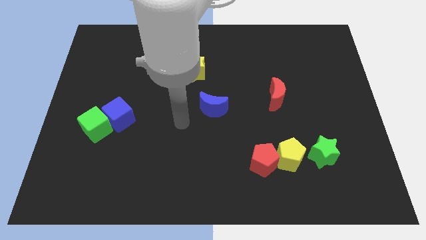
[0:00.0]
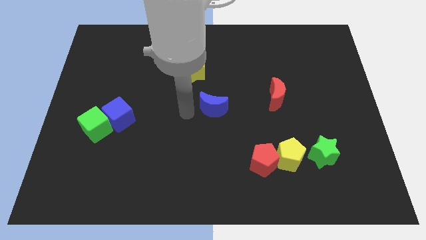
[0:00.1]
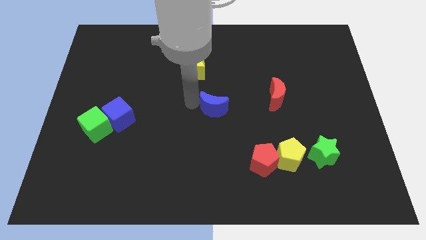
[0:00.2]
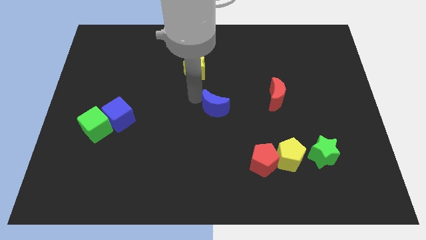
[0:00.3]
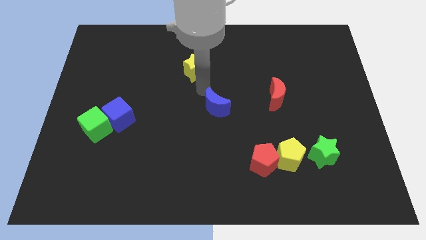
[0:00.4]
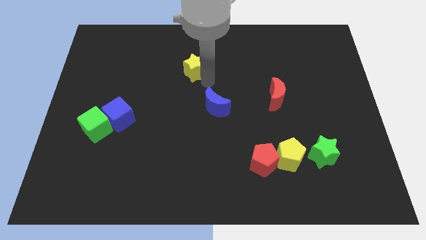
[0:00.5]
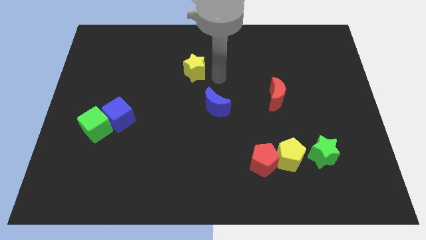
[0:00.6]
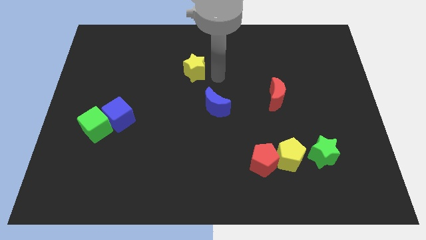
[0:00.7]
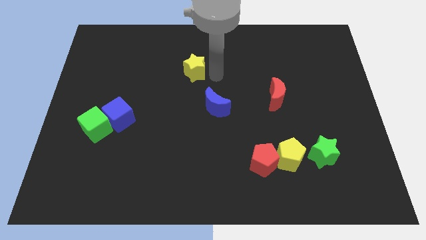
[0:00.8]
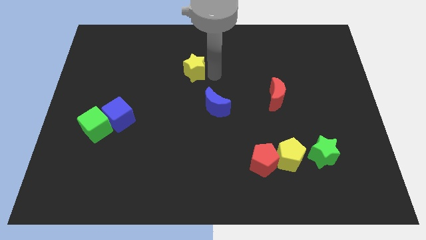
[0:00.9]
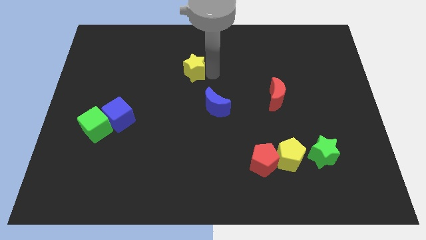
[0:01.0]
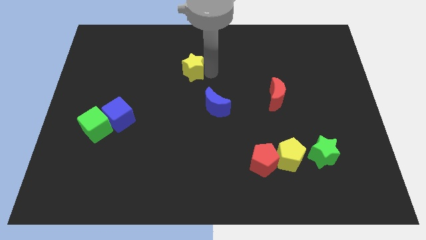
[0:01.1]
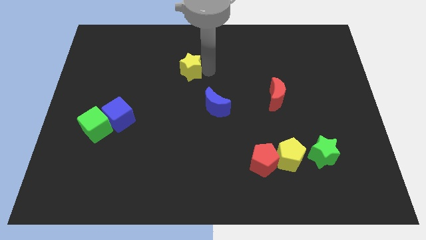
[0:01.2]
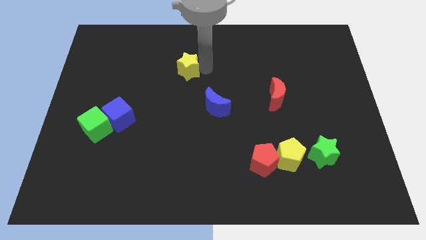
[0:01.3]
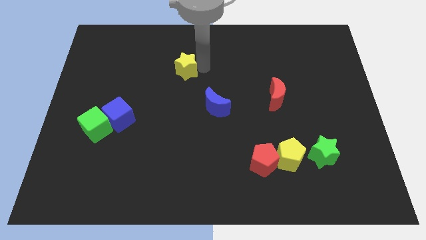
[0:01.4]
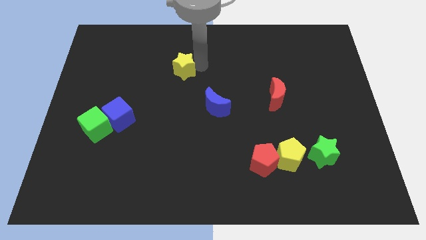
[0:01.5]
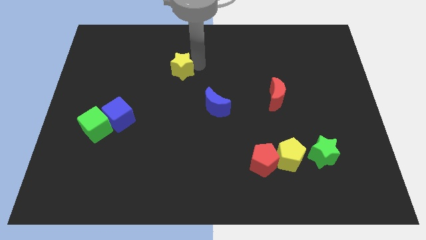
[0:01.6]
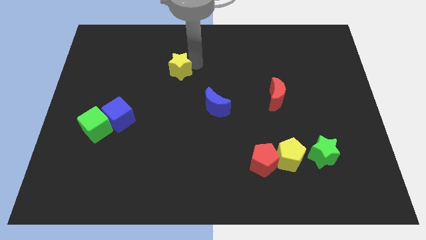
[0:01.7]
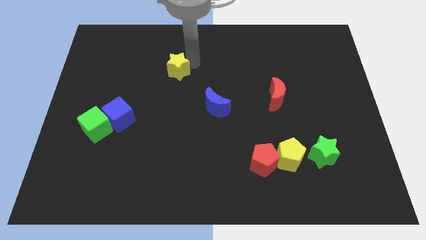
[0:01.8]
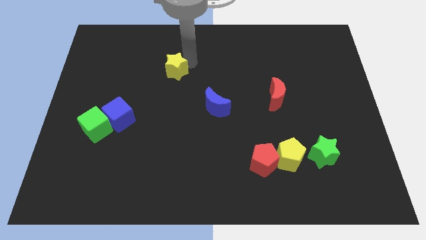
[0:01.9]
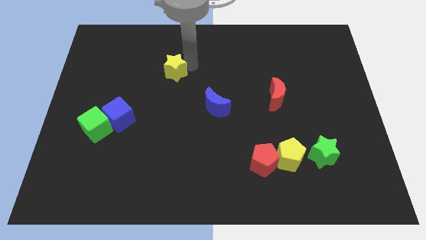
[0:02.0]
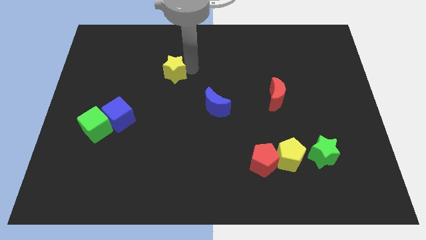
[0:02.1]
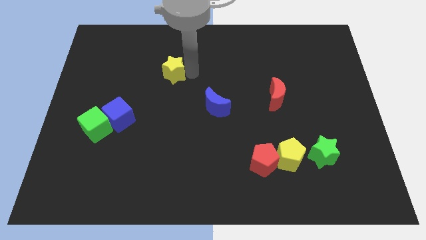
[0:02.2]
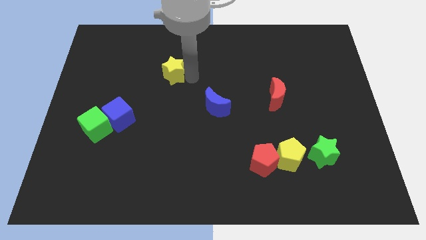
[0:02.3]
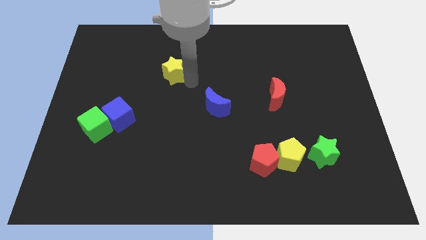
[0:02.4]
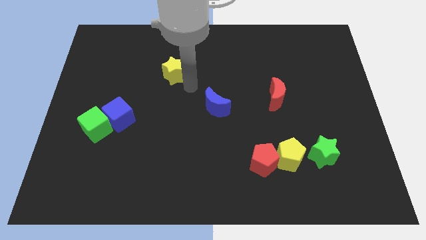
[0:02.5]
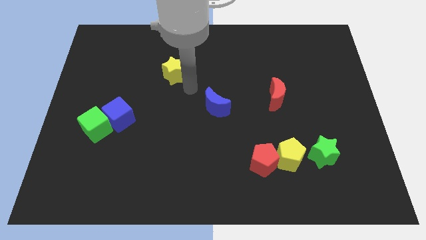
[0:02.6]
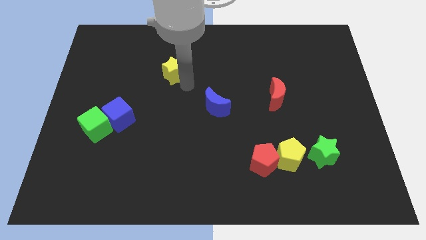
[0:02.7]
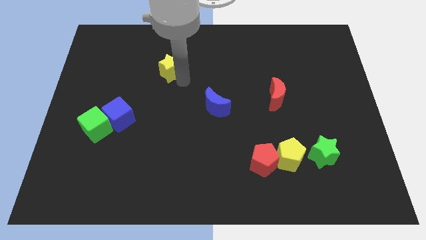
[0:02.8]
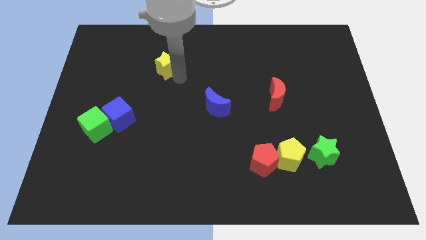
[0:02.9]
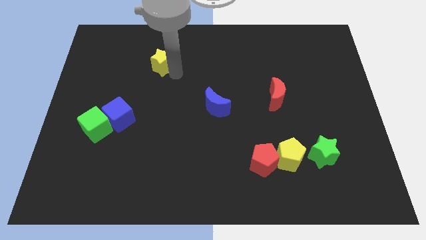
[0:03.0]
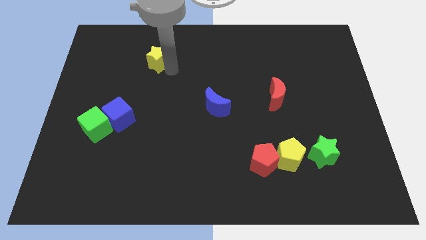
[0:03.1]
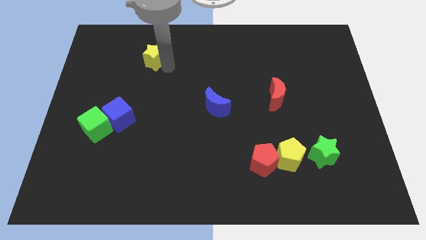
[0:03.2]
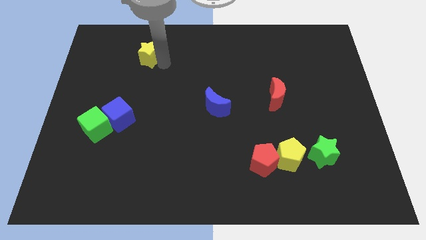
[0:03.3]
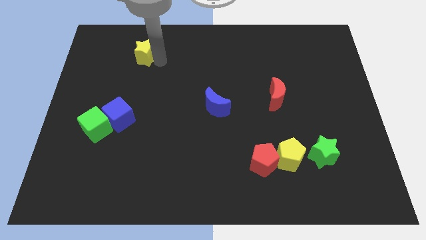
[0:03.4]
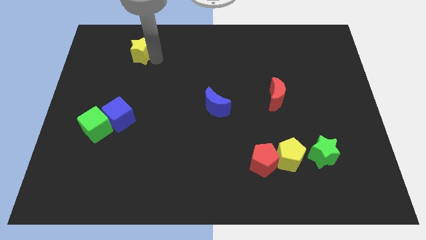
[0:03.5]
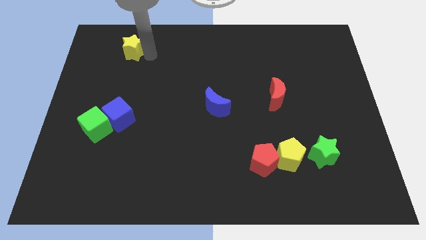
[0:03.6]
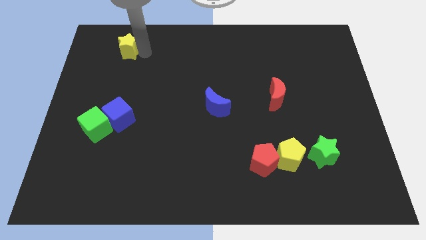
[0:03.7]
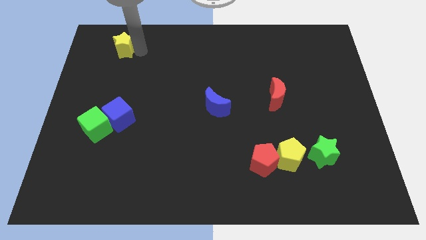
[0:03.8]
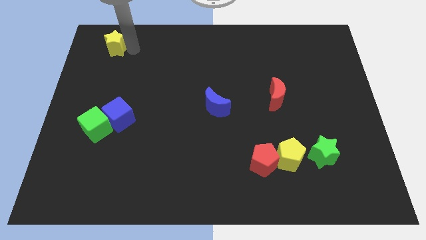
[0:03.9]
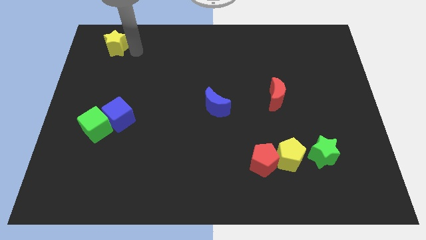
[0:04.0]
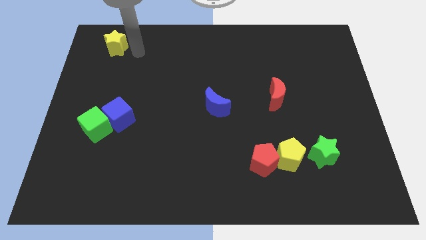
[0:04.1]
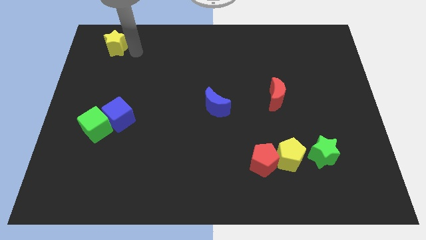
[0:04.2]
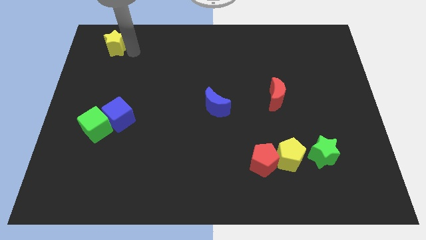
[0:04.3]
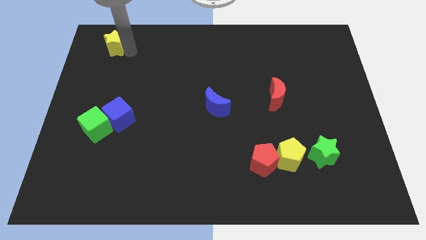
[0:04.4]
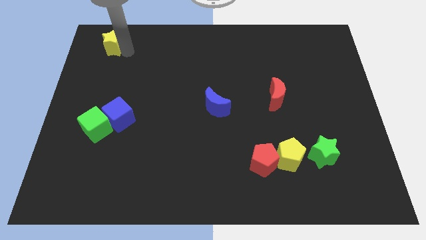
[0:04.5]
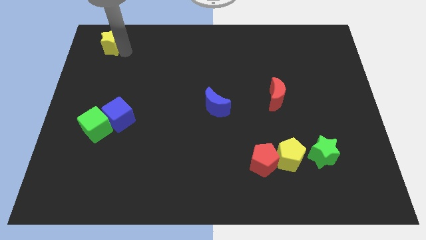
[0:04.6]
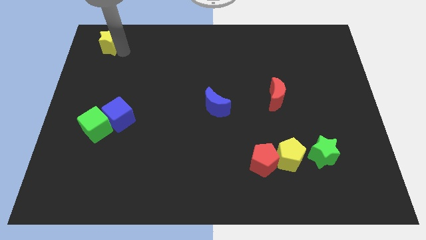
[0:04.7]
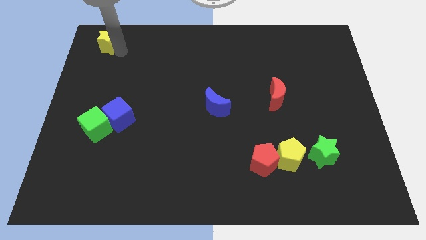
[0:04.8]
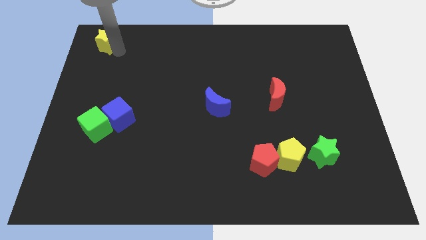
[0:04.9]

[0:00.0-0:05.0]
put the yellow star to the top left

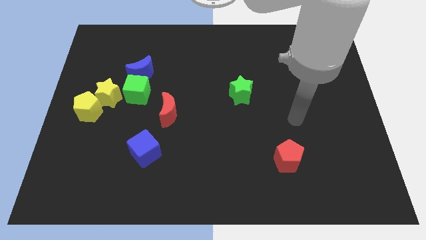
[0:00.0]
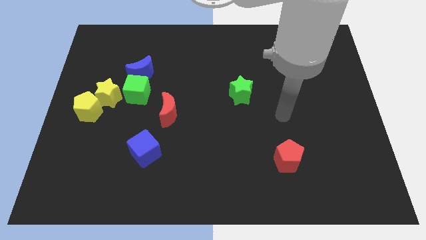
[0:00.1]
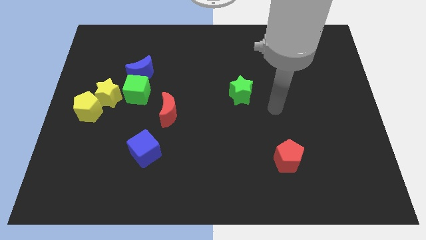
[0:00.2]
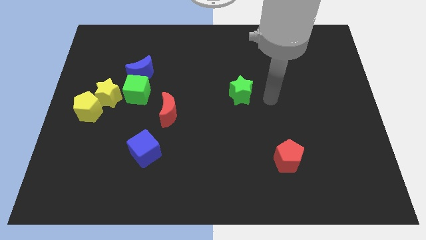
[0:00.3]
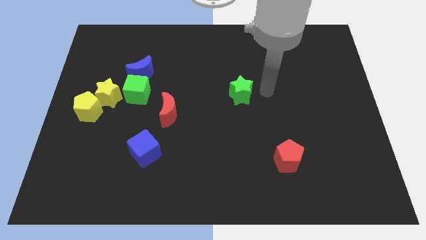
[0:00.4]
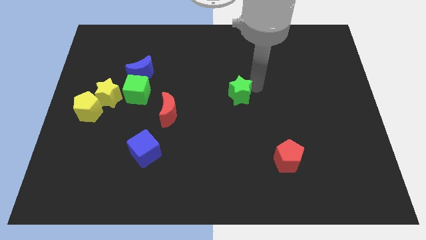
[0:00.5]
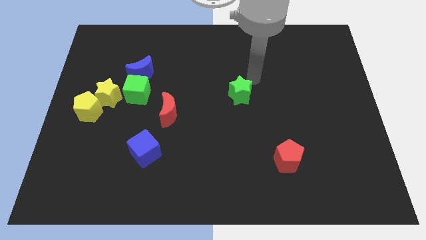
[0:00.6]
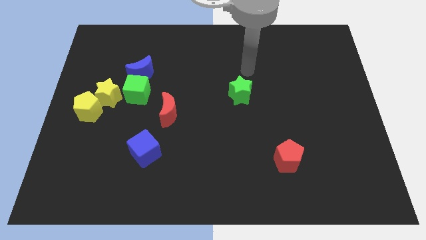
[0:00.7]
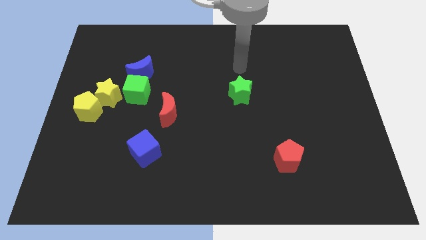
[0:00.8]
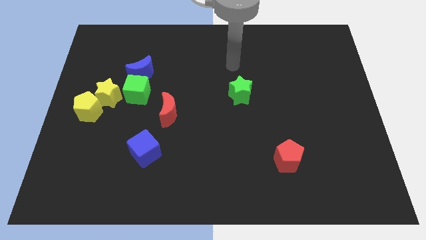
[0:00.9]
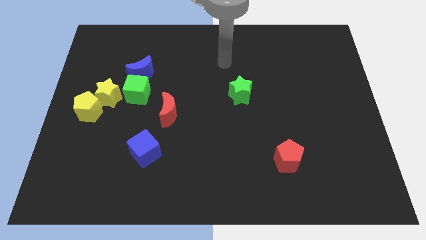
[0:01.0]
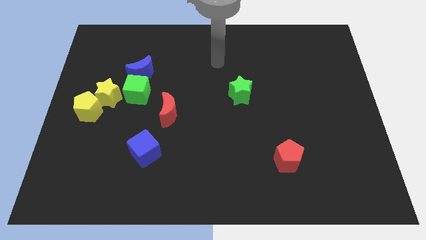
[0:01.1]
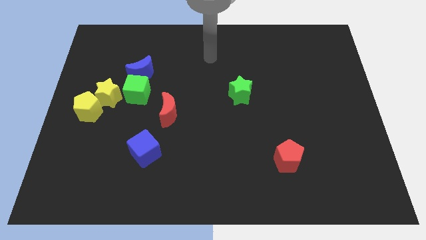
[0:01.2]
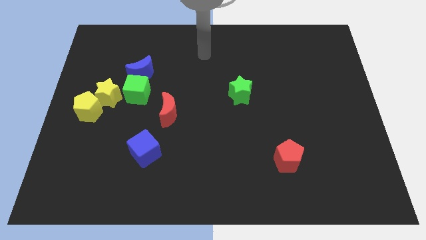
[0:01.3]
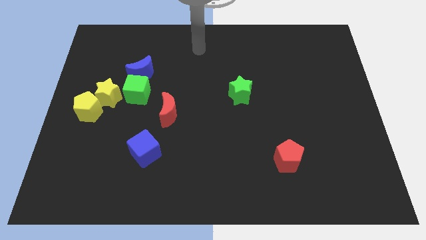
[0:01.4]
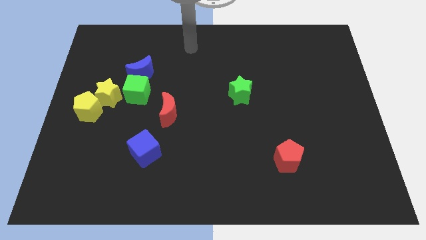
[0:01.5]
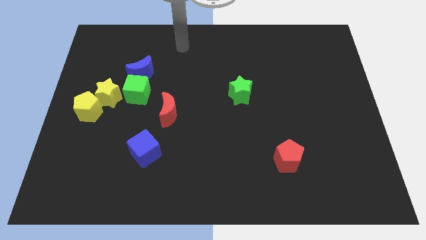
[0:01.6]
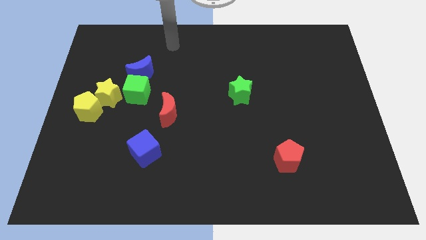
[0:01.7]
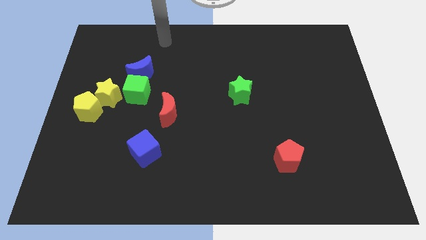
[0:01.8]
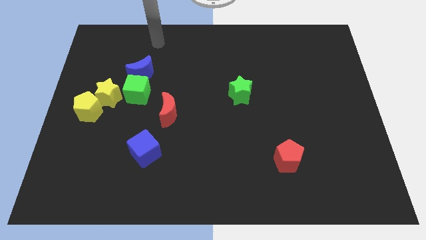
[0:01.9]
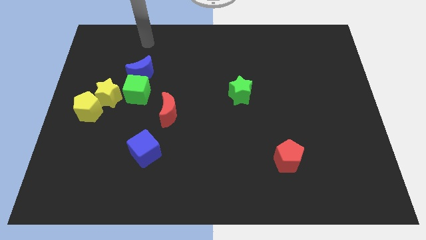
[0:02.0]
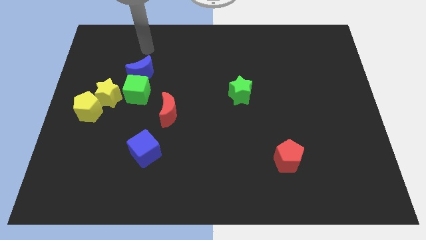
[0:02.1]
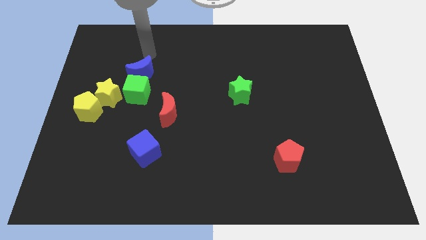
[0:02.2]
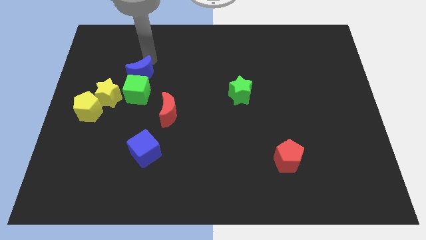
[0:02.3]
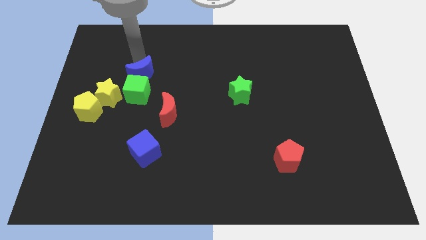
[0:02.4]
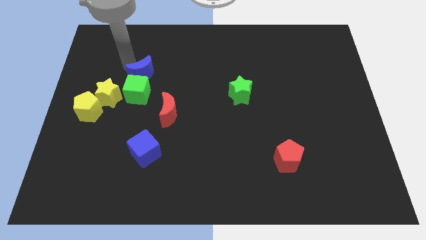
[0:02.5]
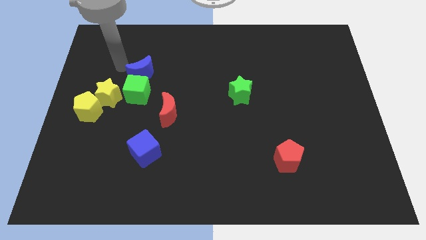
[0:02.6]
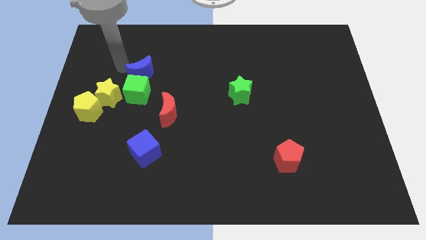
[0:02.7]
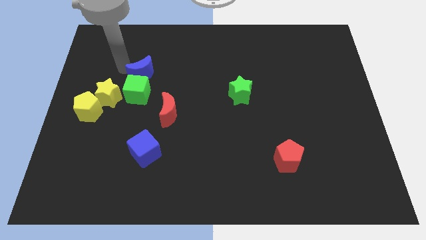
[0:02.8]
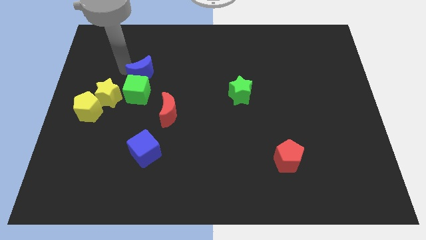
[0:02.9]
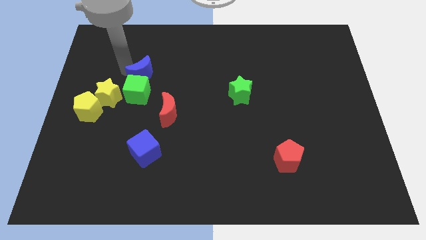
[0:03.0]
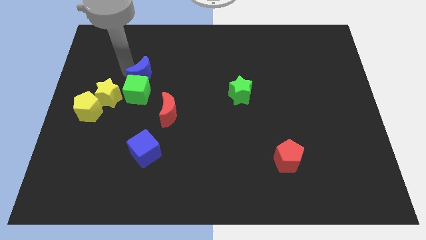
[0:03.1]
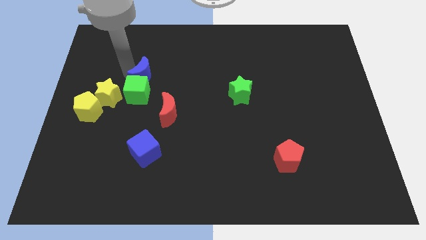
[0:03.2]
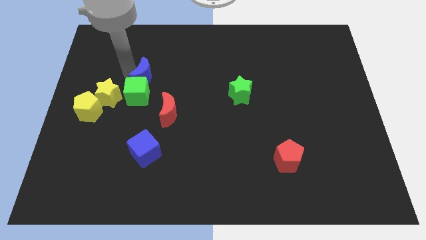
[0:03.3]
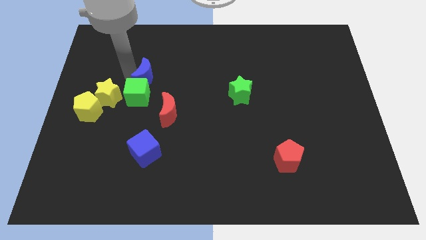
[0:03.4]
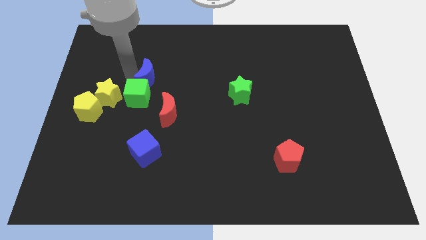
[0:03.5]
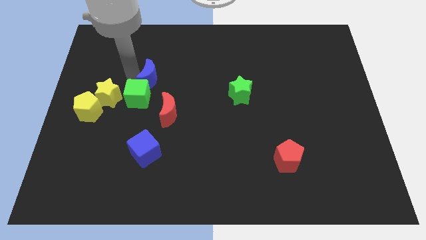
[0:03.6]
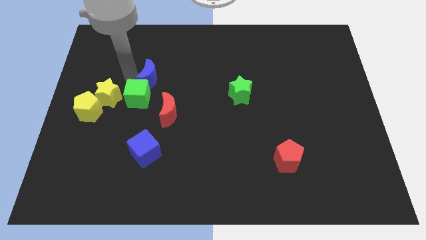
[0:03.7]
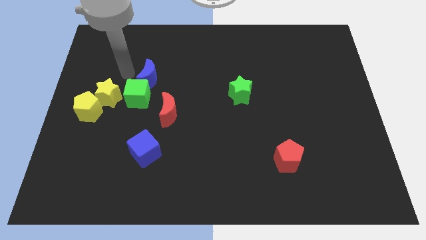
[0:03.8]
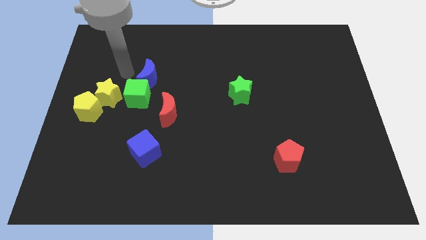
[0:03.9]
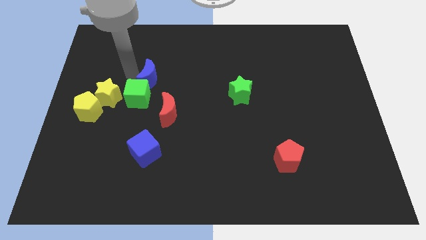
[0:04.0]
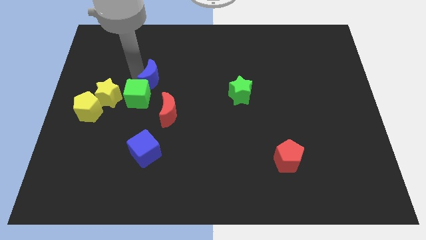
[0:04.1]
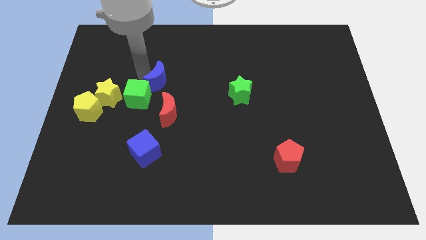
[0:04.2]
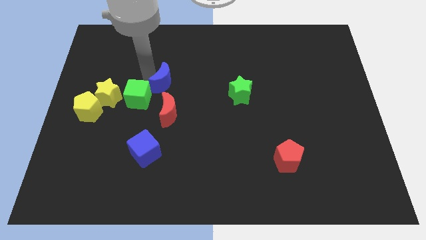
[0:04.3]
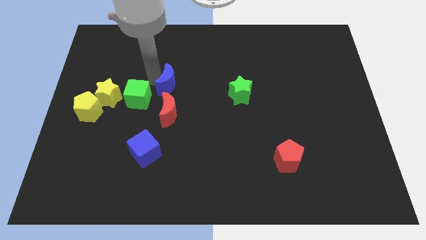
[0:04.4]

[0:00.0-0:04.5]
push the blue moon to the middle of the board
